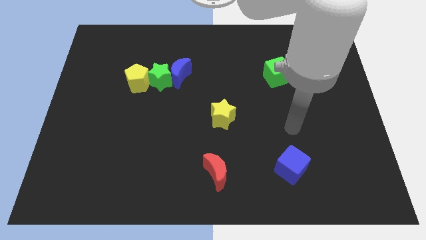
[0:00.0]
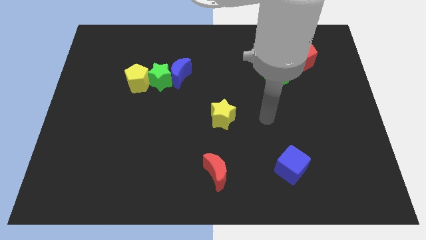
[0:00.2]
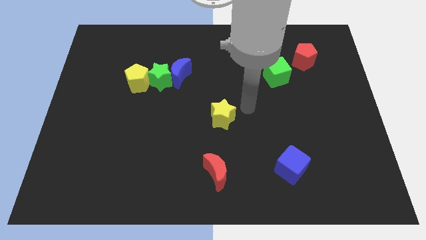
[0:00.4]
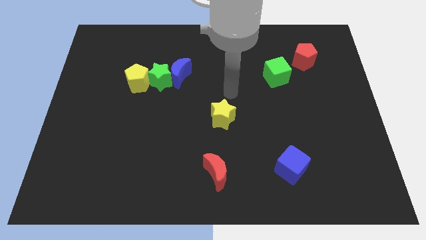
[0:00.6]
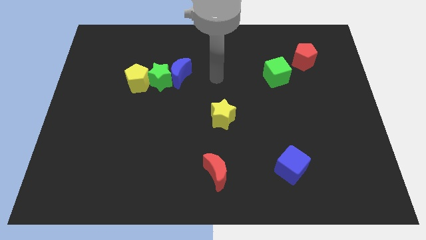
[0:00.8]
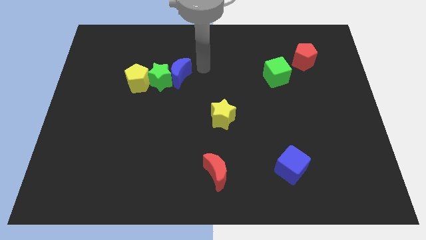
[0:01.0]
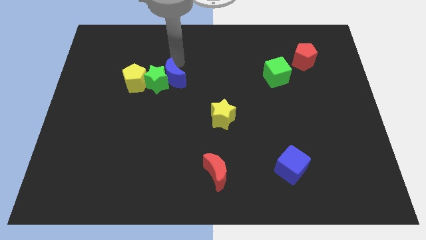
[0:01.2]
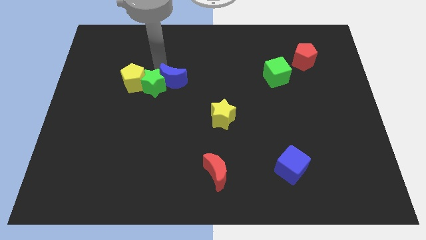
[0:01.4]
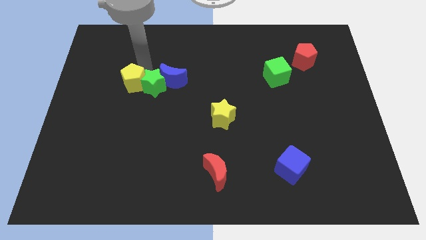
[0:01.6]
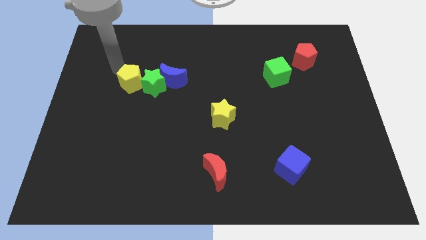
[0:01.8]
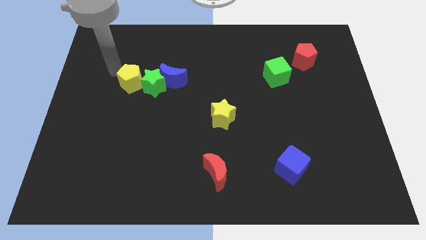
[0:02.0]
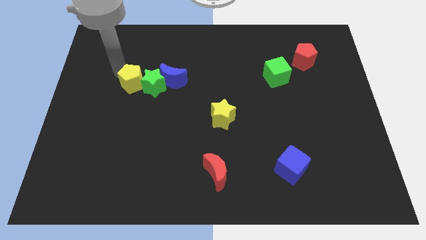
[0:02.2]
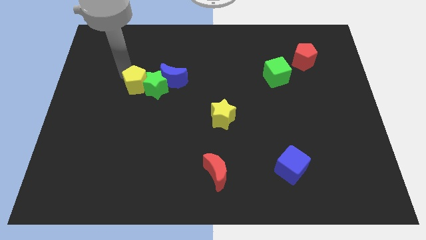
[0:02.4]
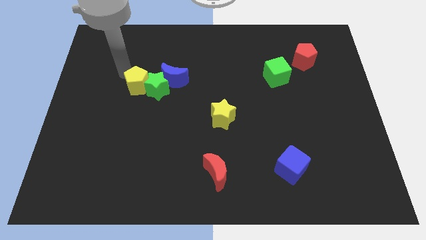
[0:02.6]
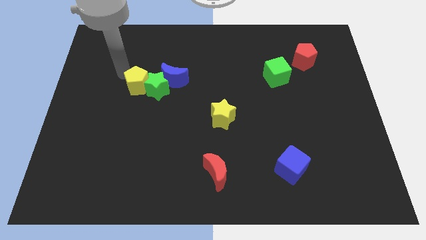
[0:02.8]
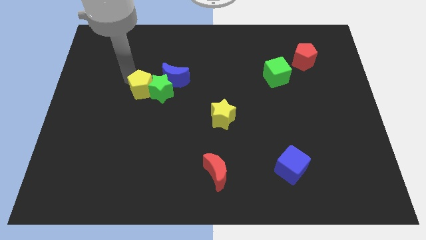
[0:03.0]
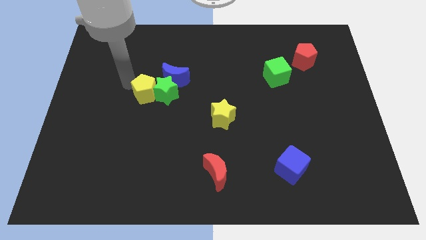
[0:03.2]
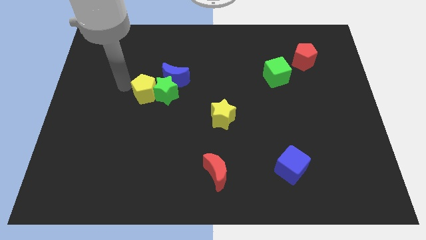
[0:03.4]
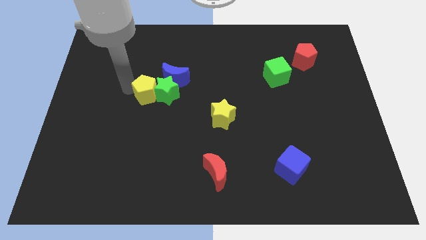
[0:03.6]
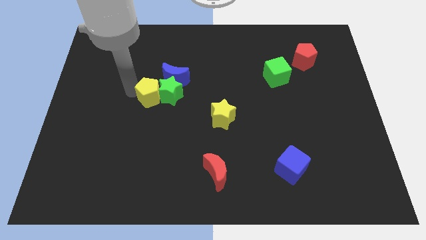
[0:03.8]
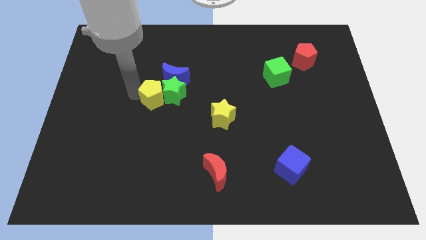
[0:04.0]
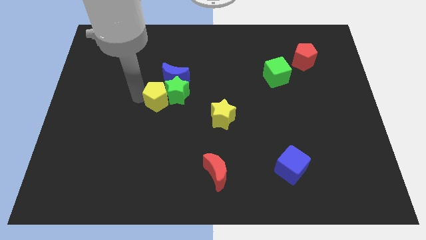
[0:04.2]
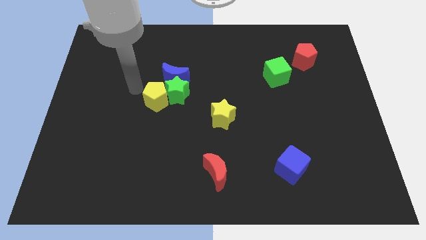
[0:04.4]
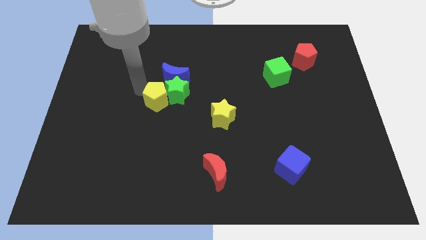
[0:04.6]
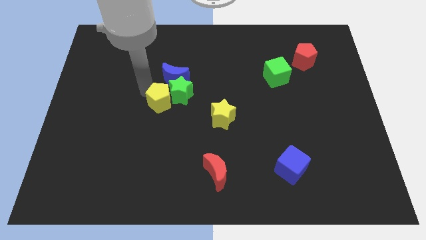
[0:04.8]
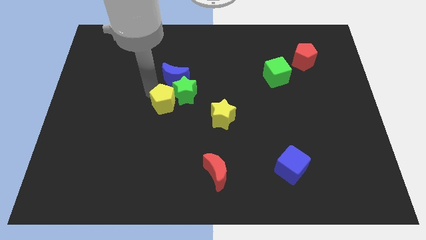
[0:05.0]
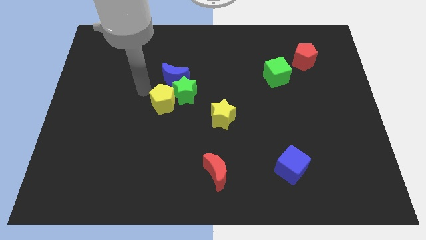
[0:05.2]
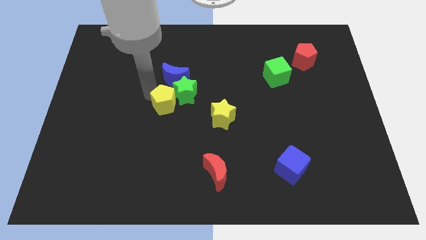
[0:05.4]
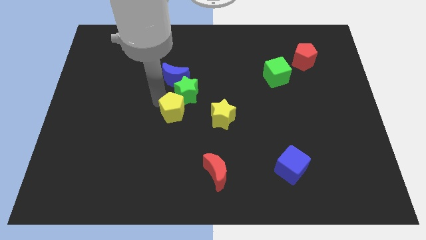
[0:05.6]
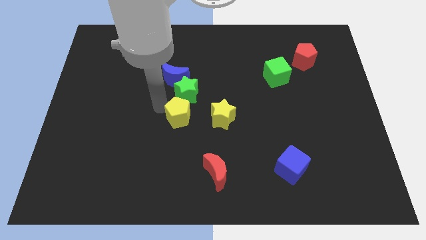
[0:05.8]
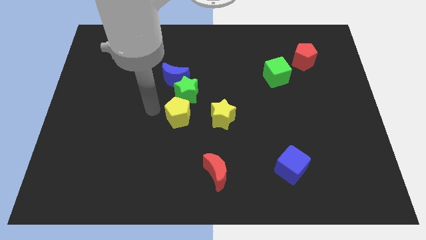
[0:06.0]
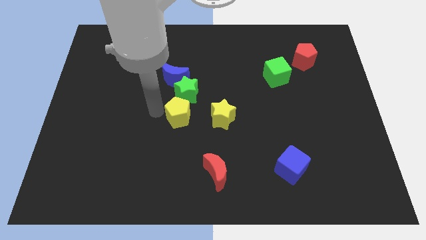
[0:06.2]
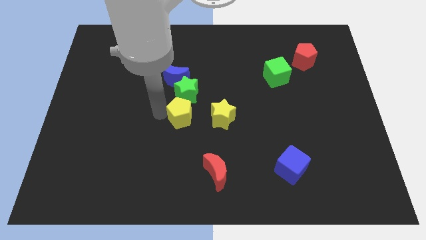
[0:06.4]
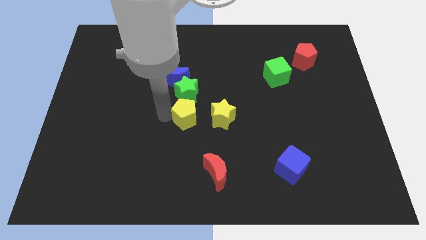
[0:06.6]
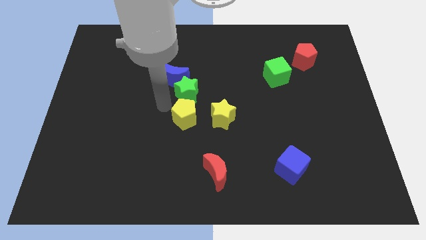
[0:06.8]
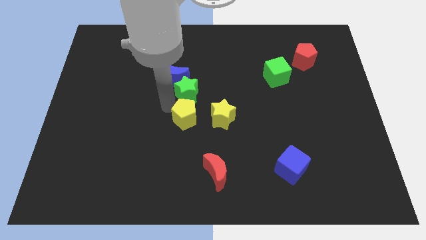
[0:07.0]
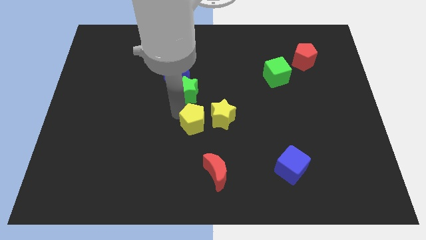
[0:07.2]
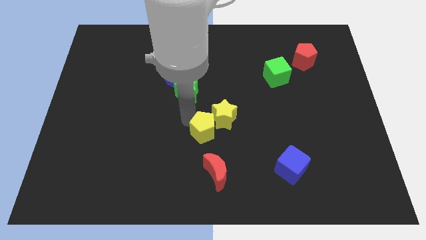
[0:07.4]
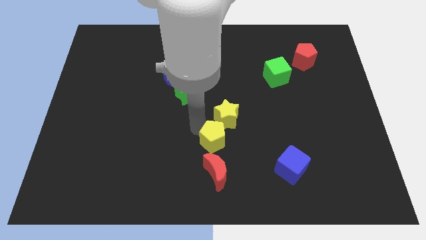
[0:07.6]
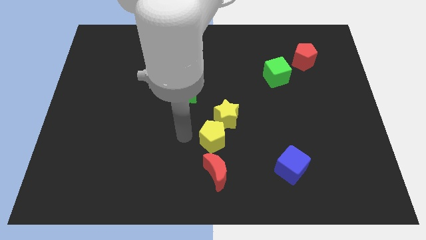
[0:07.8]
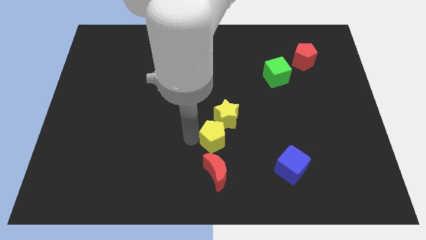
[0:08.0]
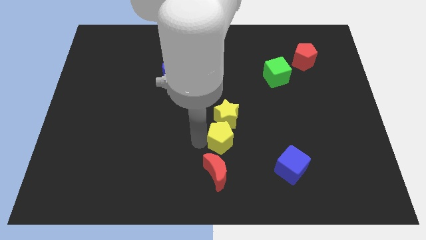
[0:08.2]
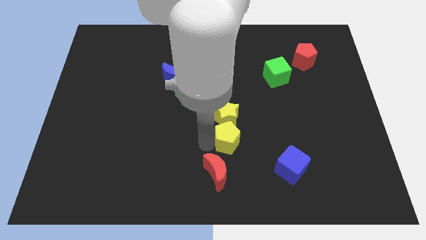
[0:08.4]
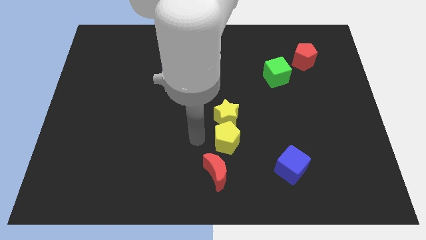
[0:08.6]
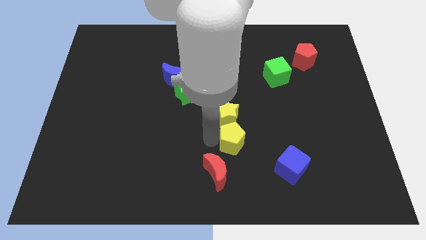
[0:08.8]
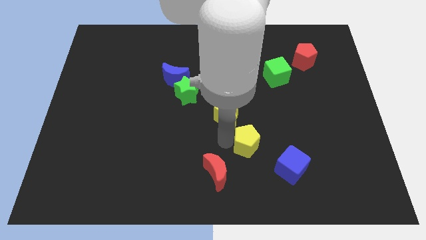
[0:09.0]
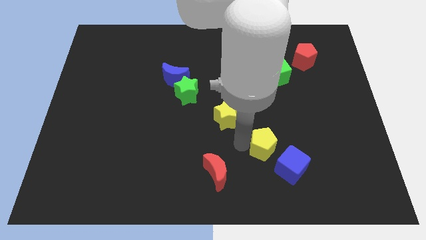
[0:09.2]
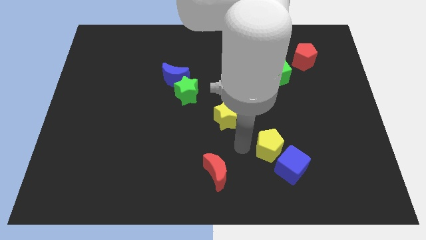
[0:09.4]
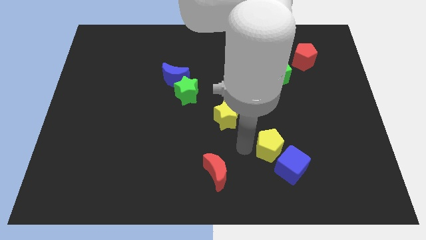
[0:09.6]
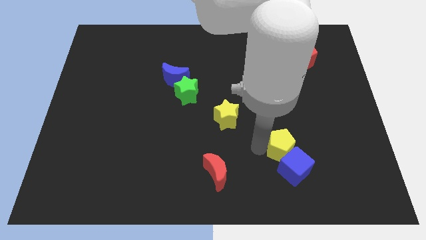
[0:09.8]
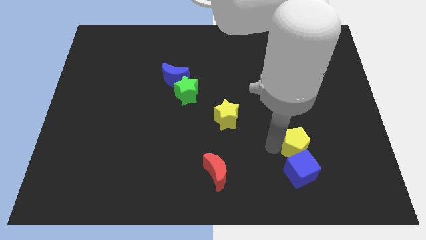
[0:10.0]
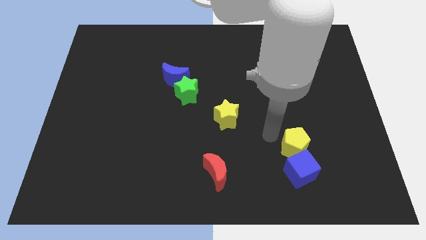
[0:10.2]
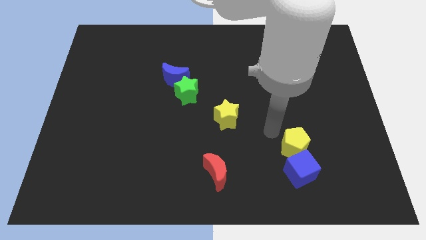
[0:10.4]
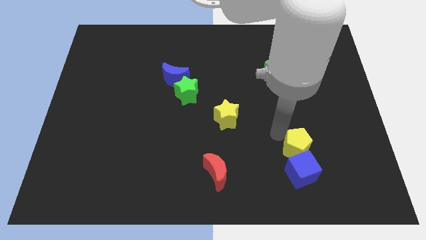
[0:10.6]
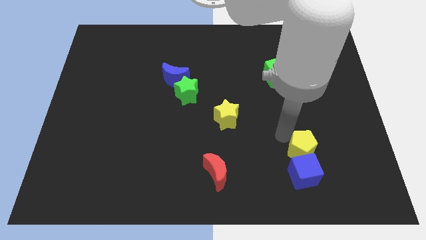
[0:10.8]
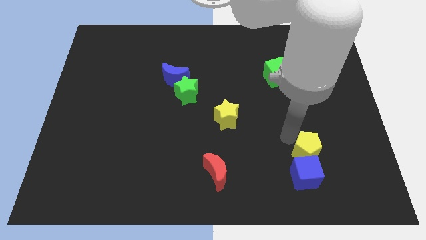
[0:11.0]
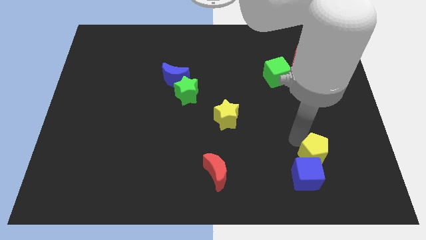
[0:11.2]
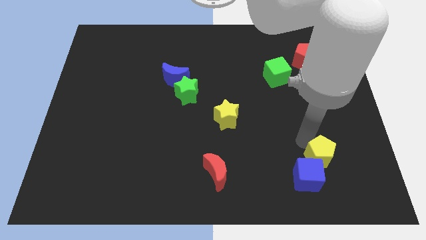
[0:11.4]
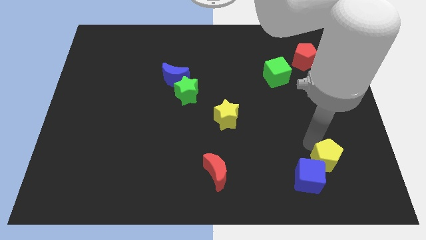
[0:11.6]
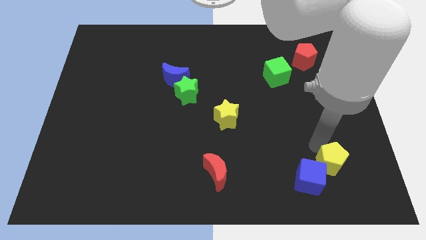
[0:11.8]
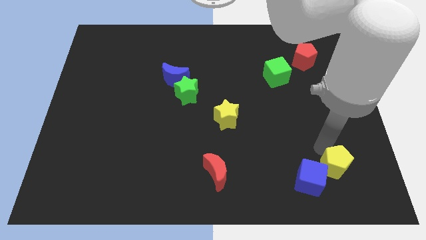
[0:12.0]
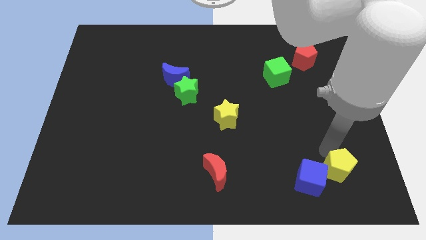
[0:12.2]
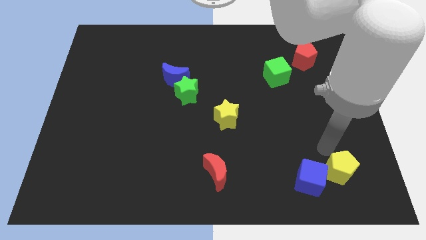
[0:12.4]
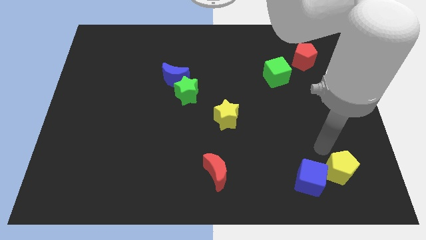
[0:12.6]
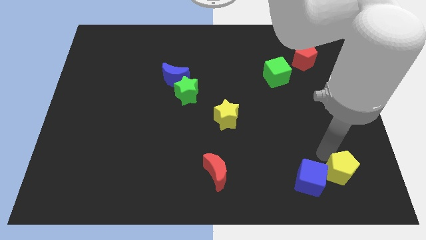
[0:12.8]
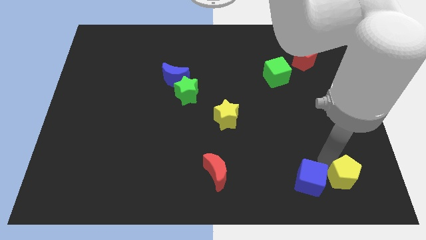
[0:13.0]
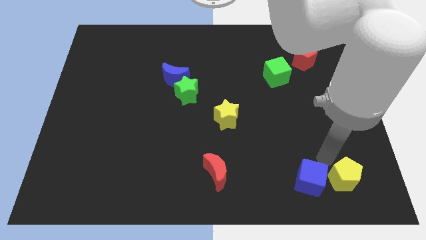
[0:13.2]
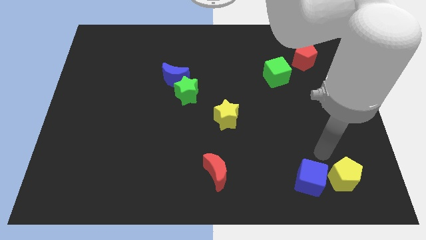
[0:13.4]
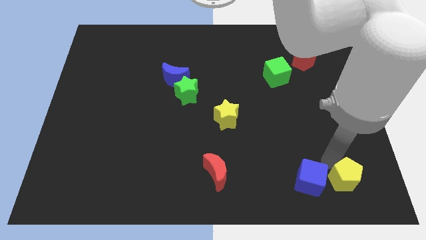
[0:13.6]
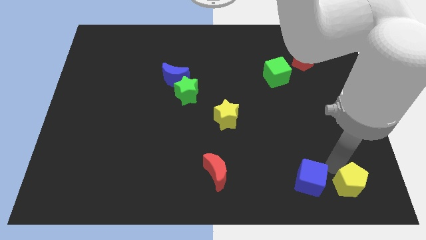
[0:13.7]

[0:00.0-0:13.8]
move the yellow pentagon to the lower right corner

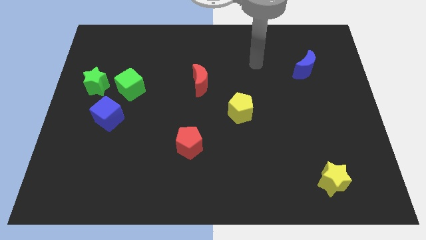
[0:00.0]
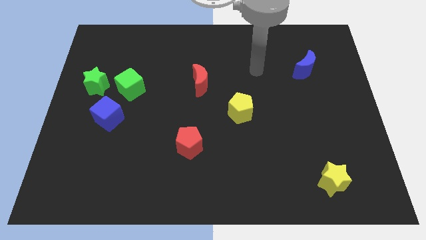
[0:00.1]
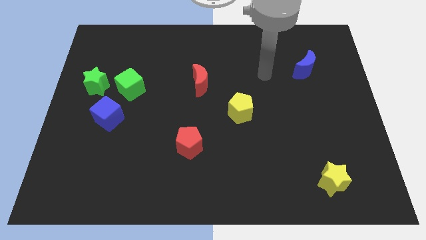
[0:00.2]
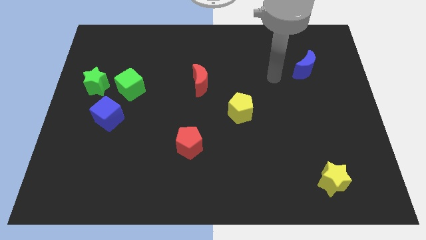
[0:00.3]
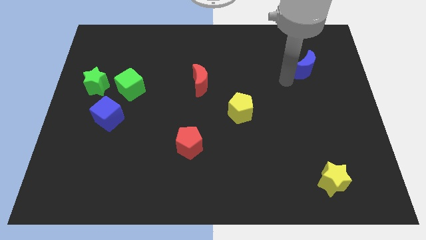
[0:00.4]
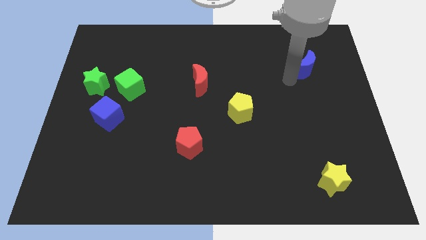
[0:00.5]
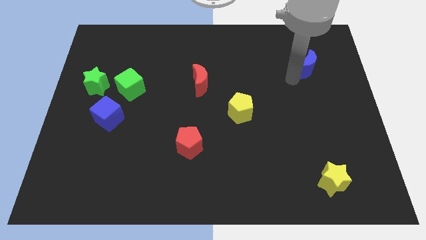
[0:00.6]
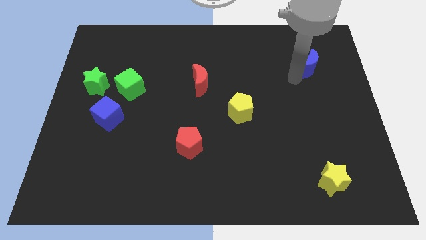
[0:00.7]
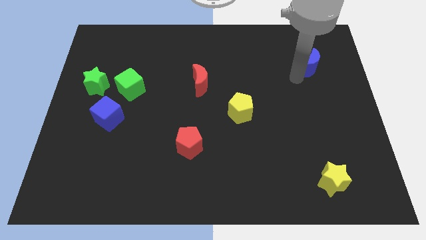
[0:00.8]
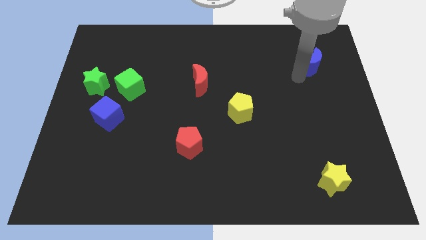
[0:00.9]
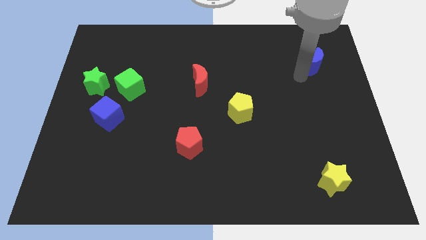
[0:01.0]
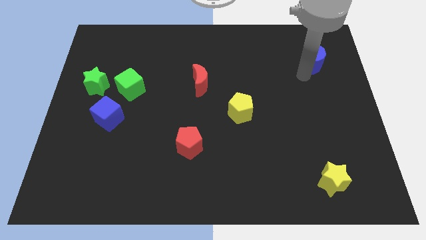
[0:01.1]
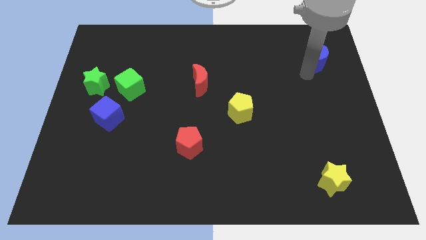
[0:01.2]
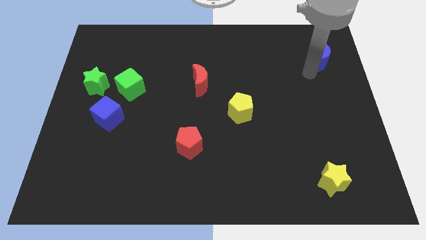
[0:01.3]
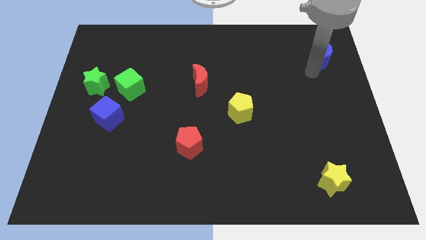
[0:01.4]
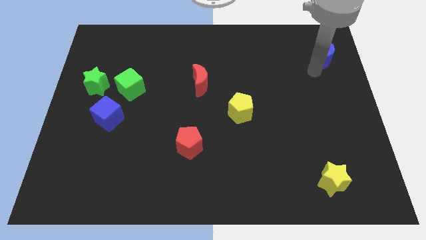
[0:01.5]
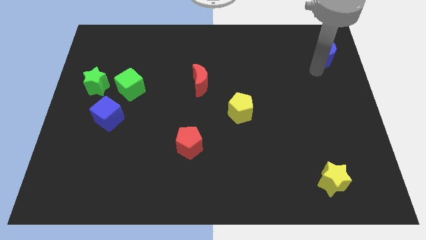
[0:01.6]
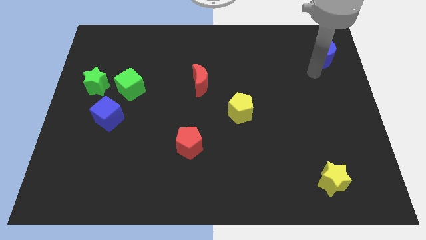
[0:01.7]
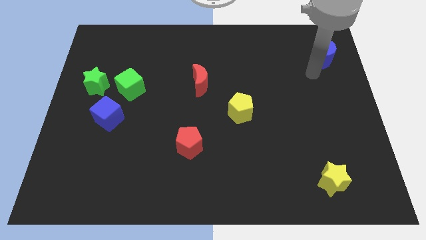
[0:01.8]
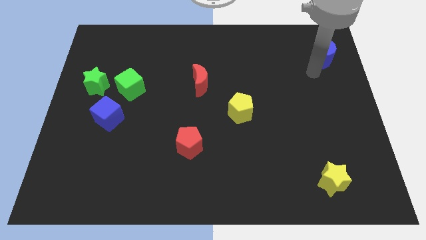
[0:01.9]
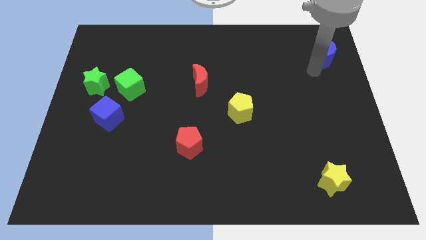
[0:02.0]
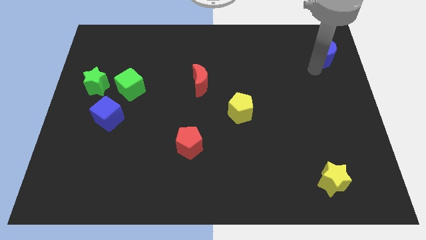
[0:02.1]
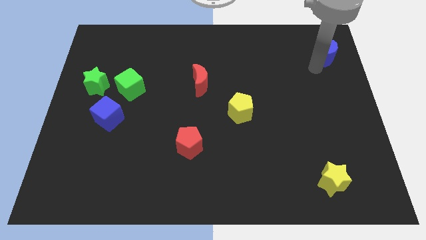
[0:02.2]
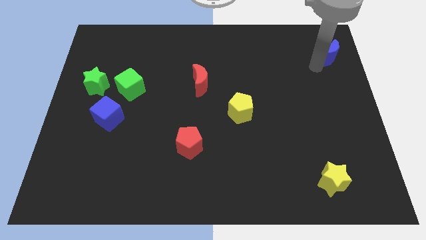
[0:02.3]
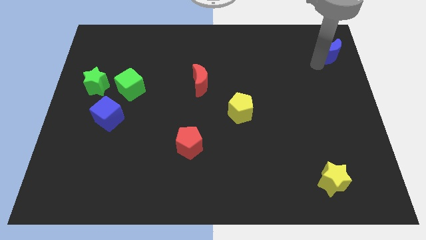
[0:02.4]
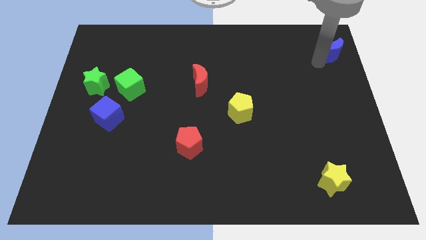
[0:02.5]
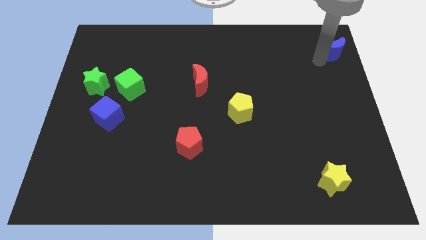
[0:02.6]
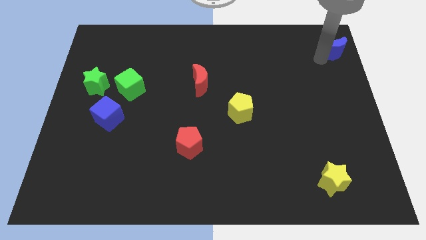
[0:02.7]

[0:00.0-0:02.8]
push the blue moon to the top right of the board
